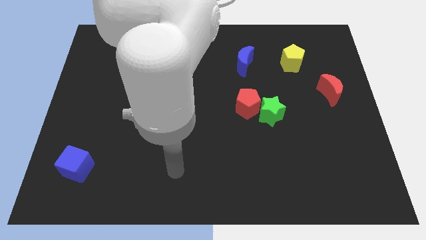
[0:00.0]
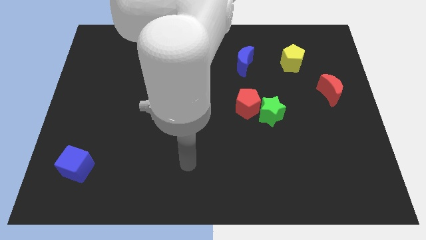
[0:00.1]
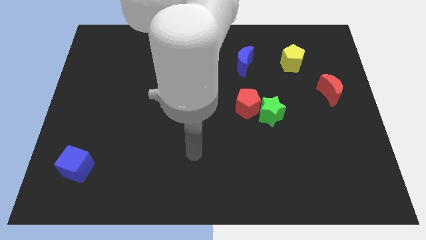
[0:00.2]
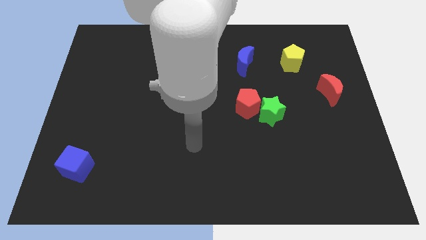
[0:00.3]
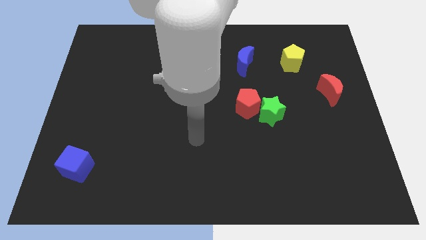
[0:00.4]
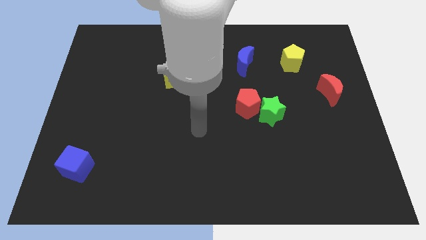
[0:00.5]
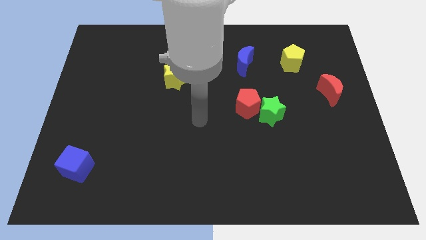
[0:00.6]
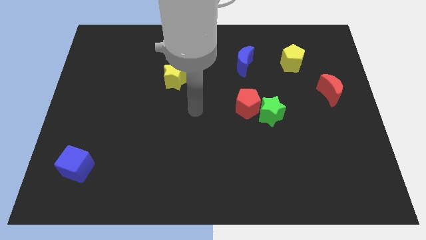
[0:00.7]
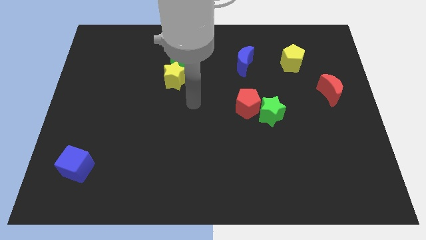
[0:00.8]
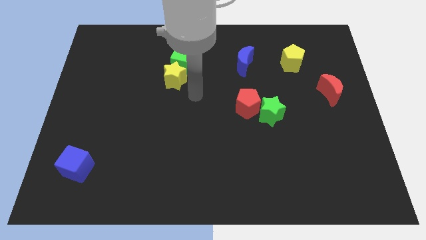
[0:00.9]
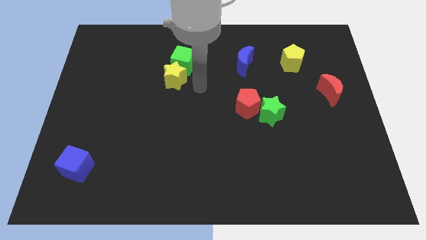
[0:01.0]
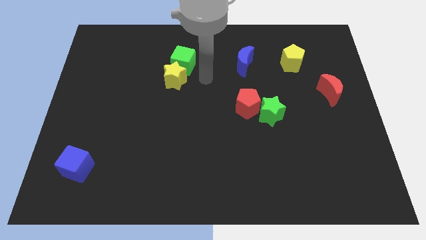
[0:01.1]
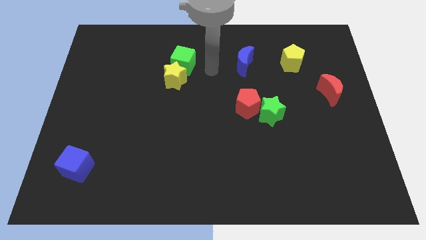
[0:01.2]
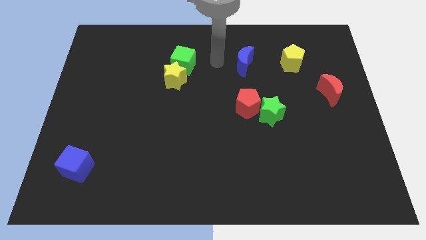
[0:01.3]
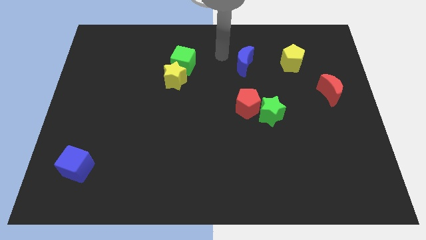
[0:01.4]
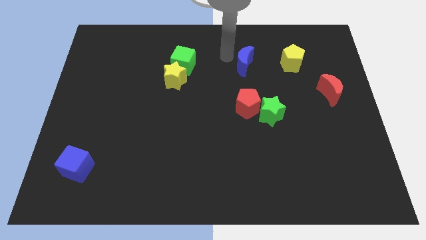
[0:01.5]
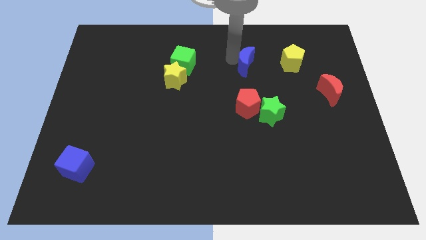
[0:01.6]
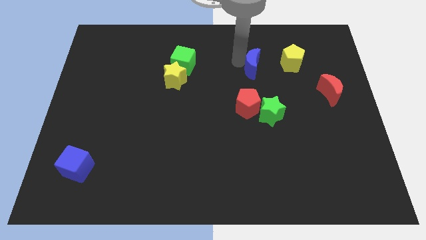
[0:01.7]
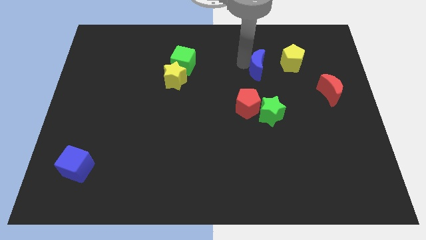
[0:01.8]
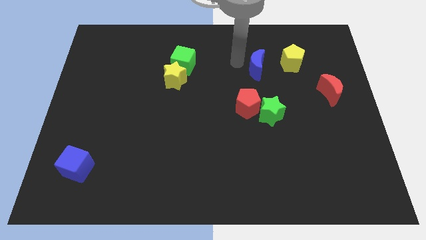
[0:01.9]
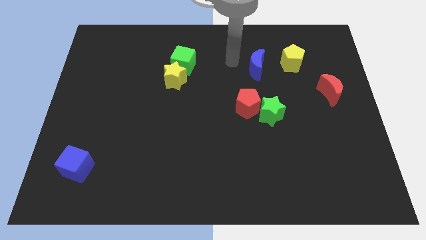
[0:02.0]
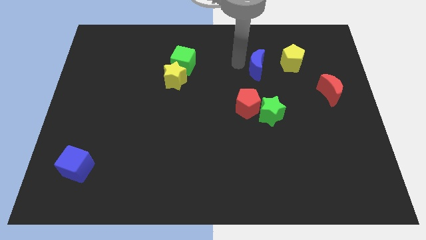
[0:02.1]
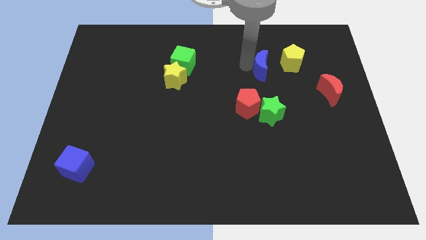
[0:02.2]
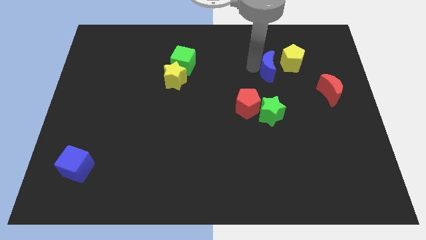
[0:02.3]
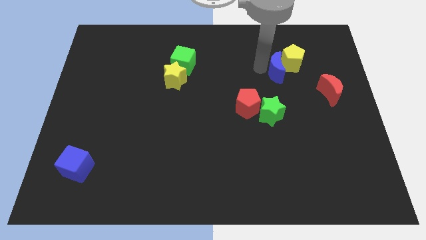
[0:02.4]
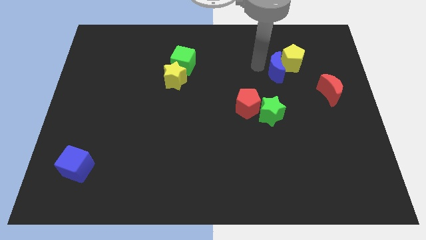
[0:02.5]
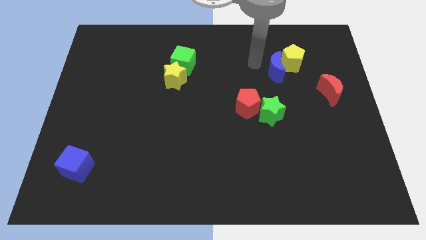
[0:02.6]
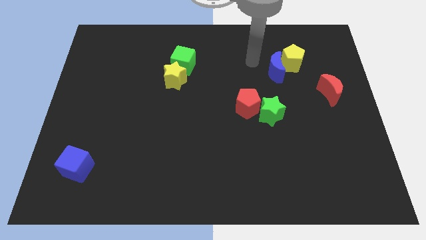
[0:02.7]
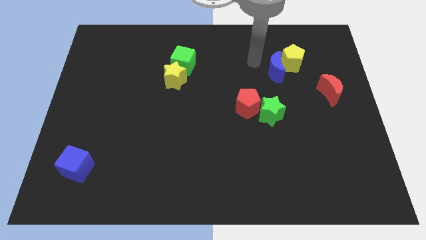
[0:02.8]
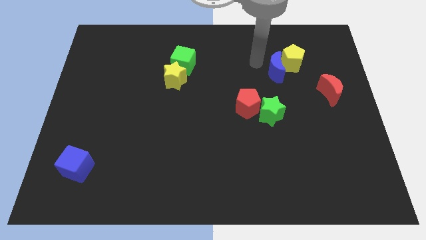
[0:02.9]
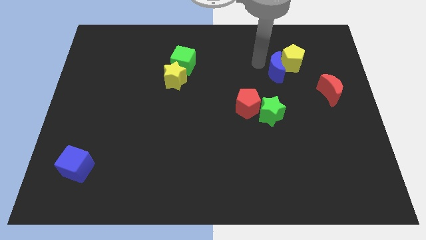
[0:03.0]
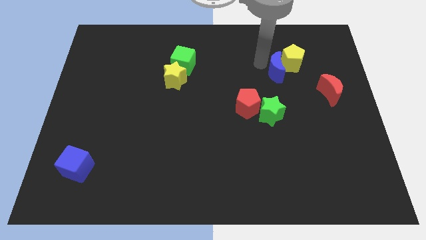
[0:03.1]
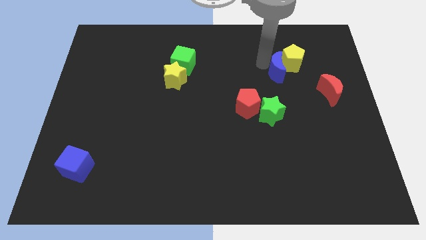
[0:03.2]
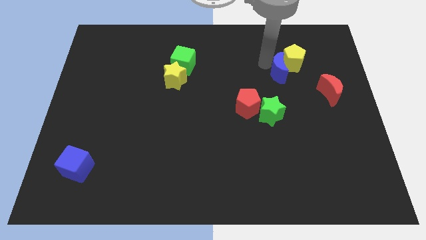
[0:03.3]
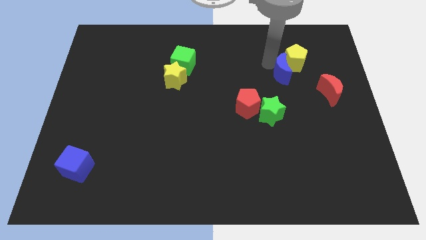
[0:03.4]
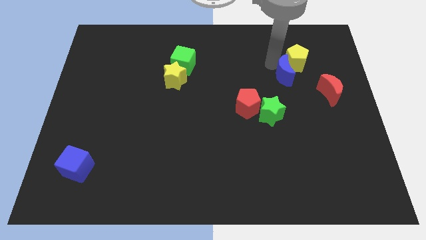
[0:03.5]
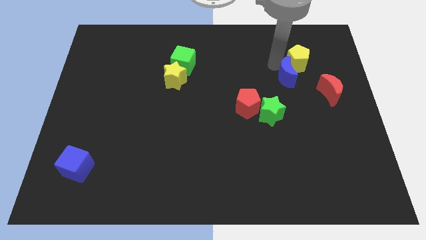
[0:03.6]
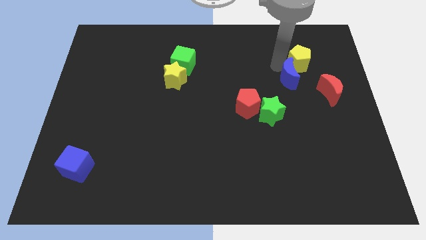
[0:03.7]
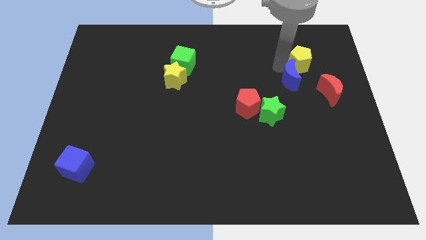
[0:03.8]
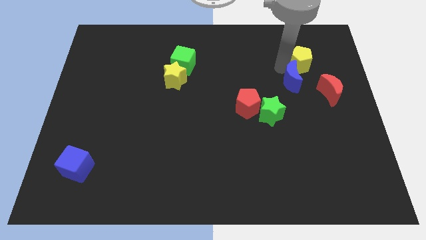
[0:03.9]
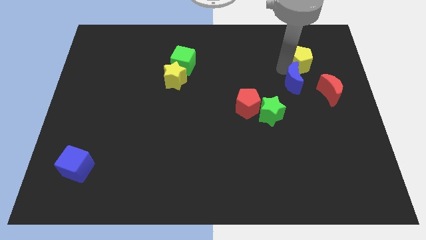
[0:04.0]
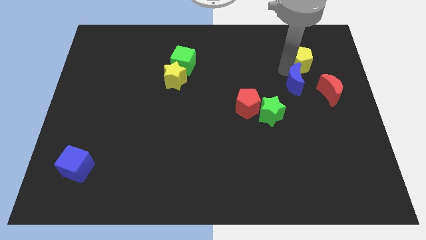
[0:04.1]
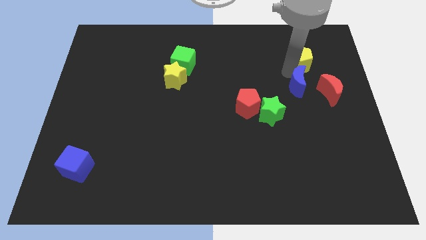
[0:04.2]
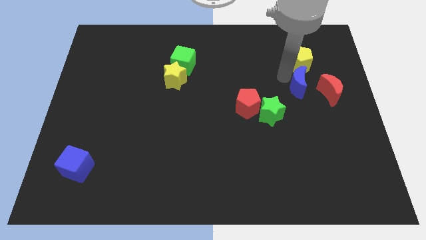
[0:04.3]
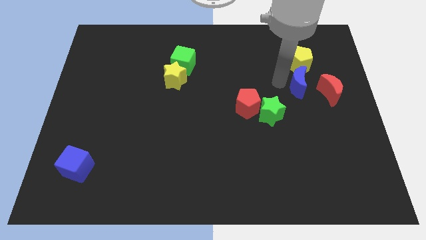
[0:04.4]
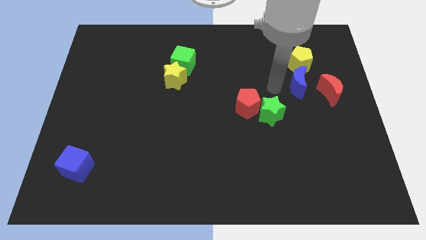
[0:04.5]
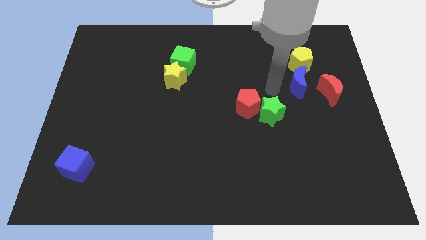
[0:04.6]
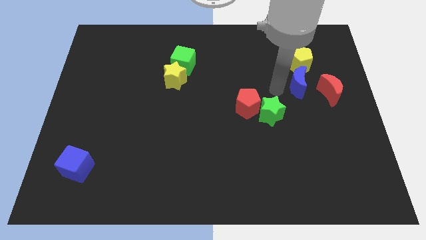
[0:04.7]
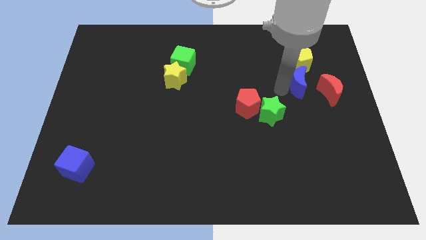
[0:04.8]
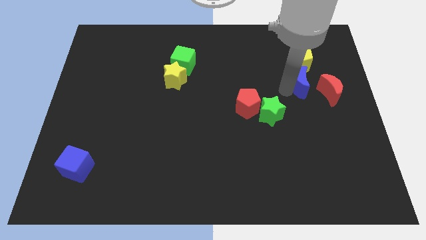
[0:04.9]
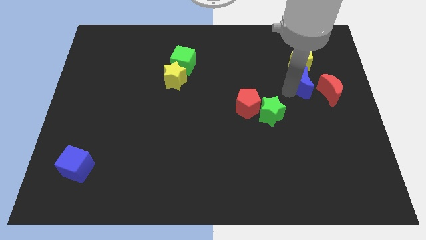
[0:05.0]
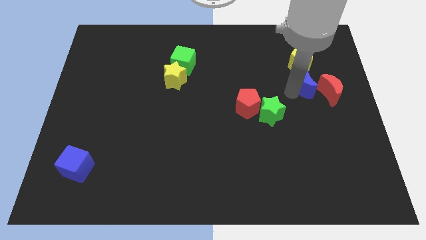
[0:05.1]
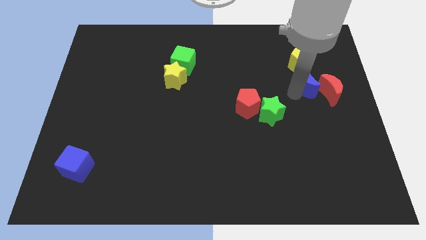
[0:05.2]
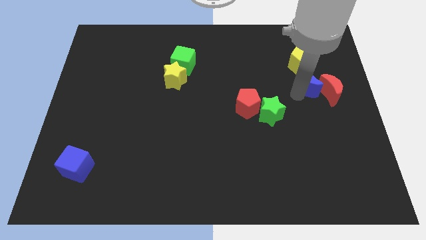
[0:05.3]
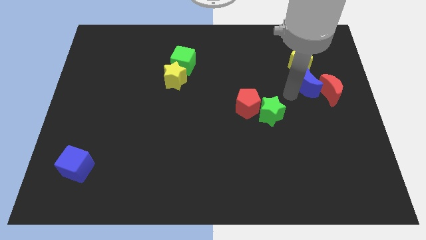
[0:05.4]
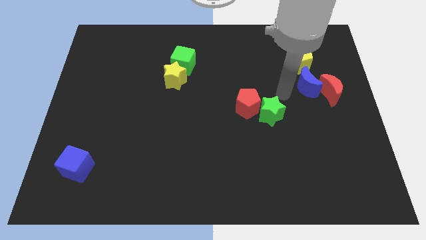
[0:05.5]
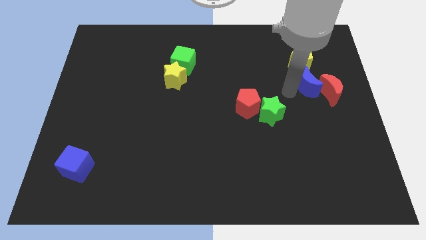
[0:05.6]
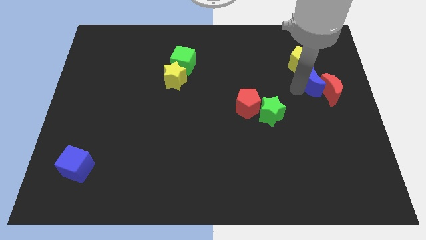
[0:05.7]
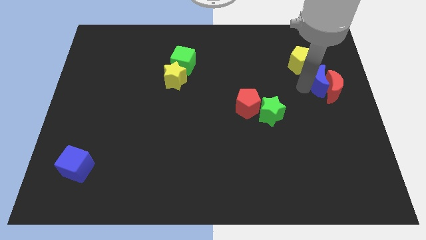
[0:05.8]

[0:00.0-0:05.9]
slide the blue moon to the center right

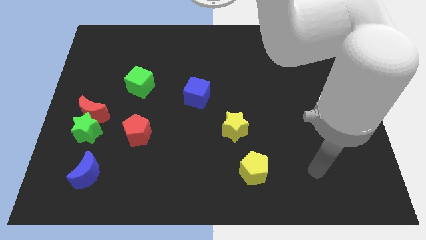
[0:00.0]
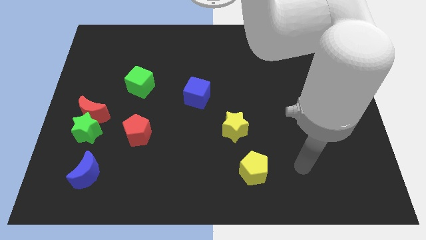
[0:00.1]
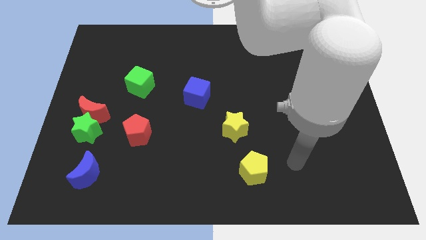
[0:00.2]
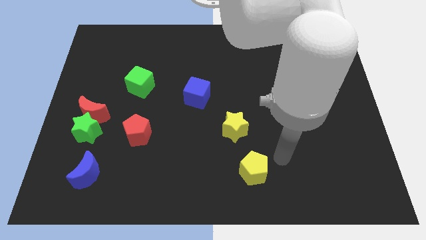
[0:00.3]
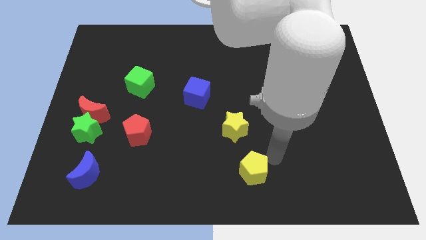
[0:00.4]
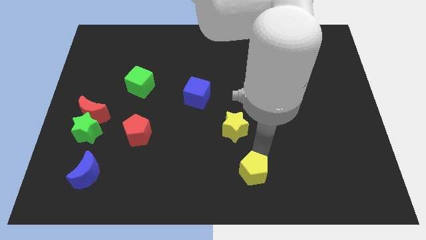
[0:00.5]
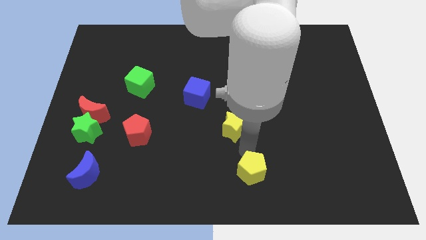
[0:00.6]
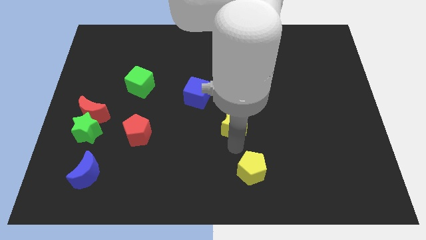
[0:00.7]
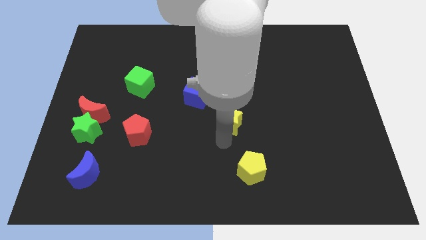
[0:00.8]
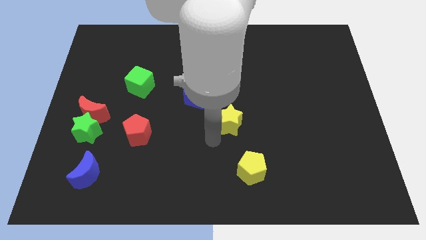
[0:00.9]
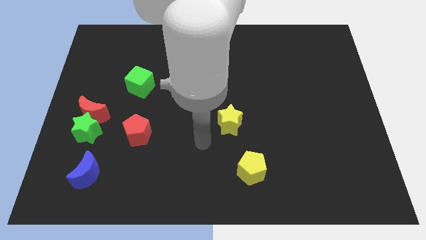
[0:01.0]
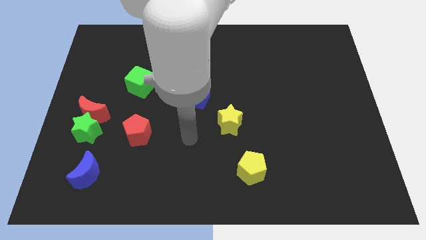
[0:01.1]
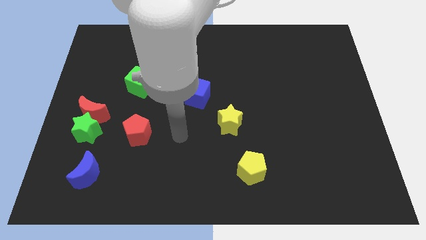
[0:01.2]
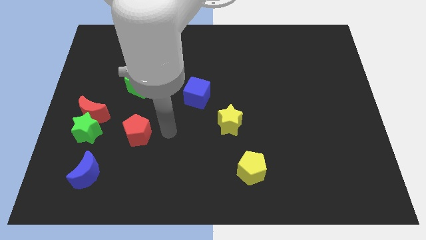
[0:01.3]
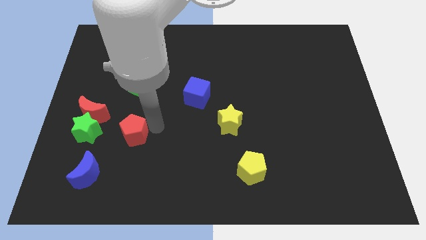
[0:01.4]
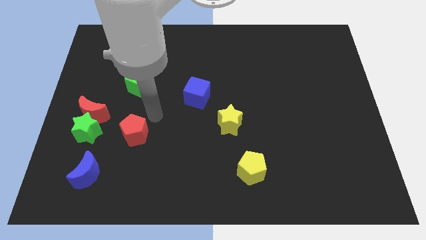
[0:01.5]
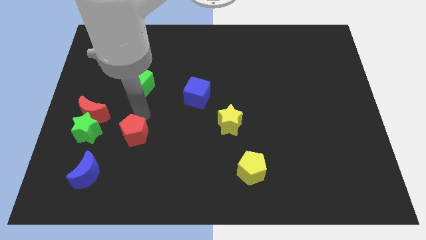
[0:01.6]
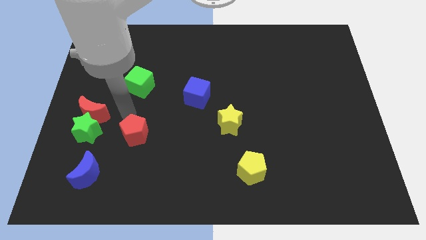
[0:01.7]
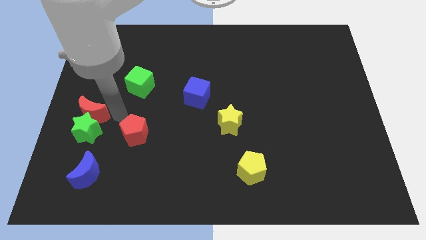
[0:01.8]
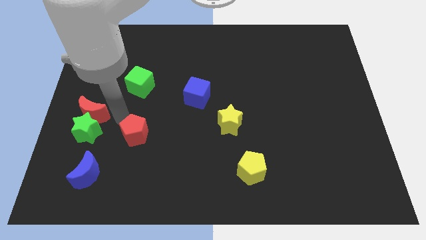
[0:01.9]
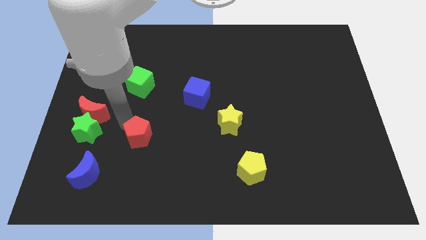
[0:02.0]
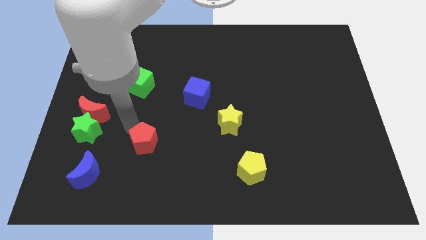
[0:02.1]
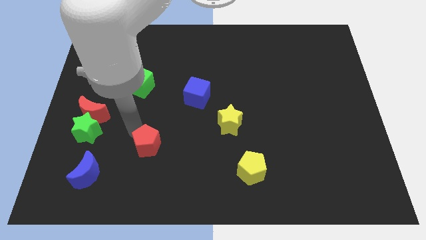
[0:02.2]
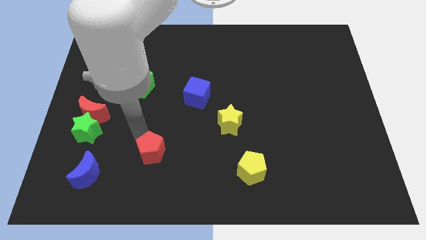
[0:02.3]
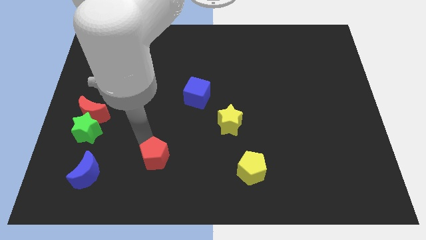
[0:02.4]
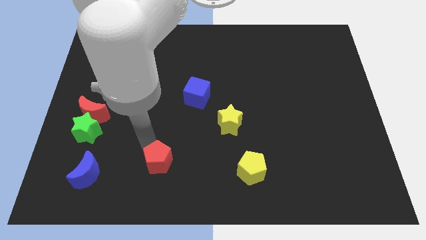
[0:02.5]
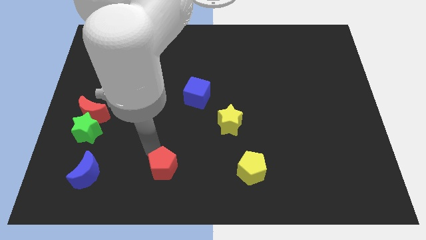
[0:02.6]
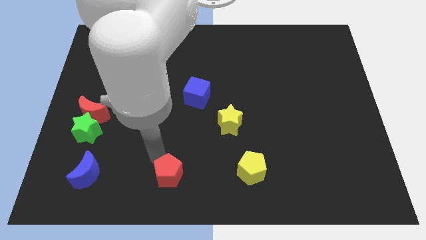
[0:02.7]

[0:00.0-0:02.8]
put the red pentagon to the bottom side
